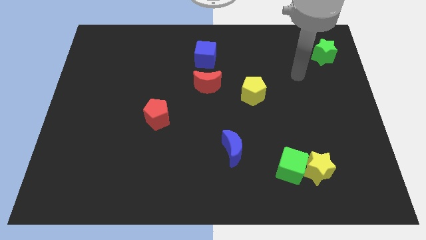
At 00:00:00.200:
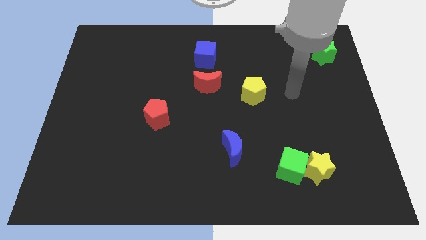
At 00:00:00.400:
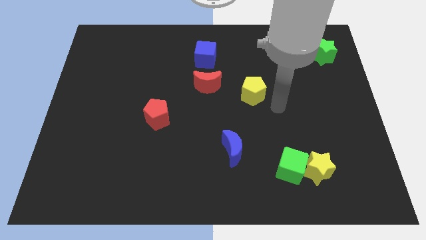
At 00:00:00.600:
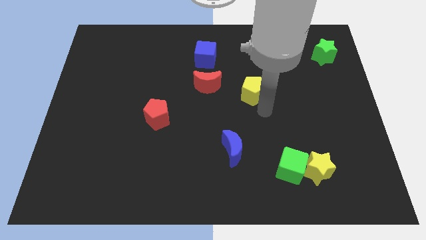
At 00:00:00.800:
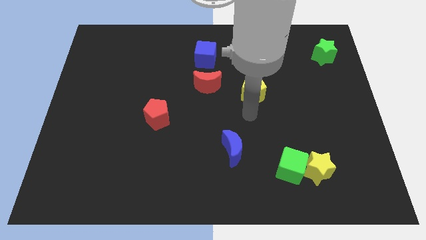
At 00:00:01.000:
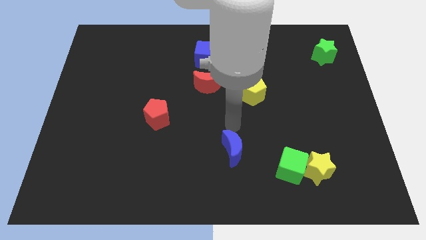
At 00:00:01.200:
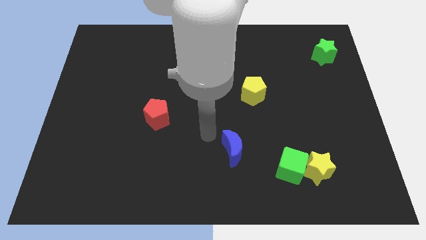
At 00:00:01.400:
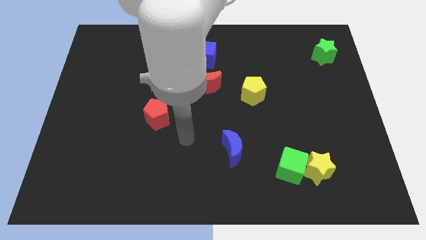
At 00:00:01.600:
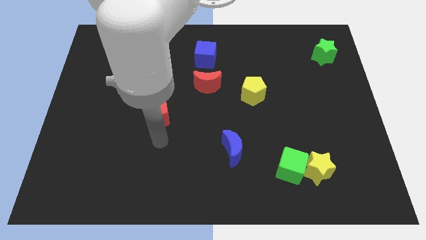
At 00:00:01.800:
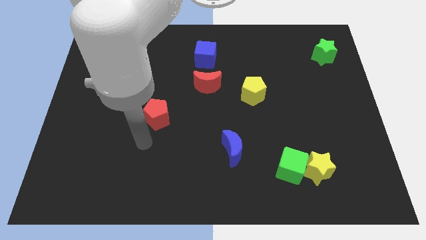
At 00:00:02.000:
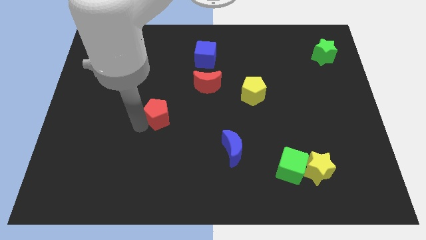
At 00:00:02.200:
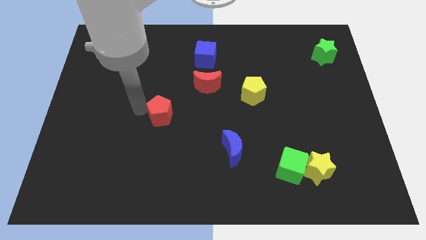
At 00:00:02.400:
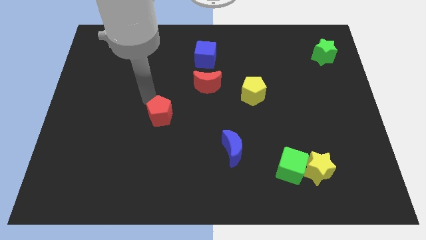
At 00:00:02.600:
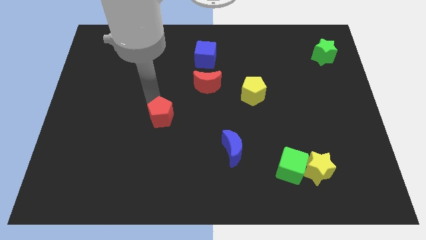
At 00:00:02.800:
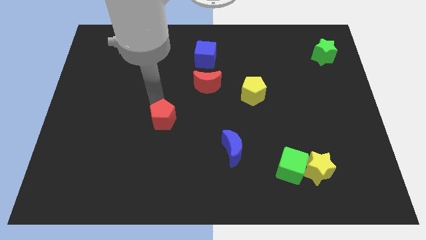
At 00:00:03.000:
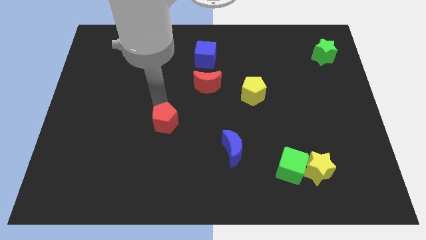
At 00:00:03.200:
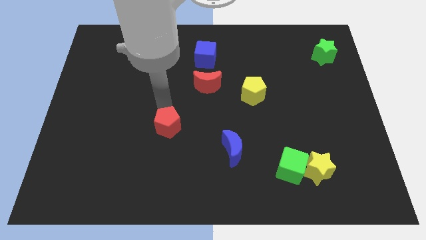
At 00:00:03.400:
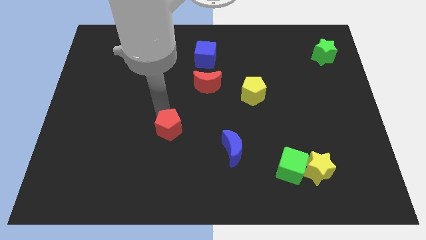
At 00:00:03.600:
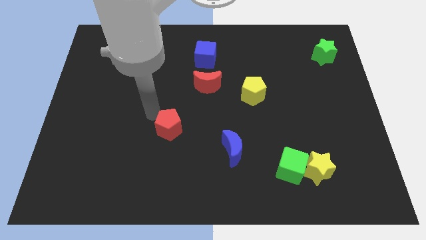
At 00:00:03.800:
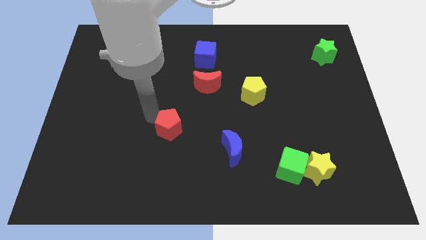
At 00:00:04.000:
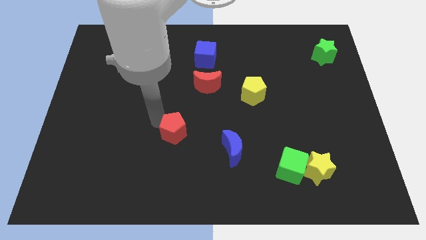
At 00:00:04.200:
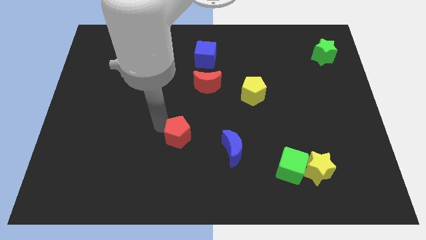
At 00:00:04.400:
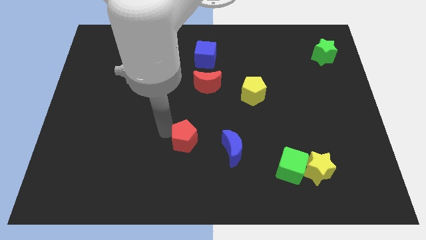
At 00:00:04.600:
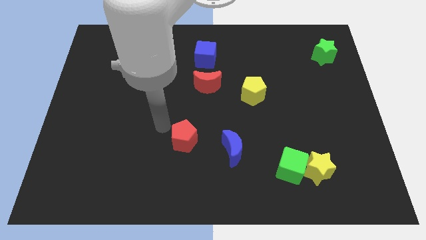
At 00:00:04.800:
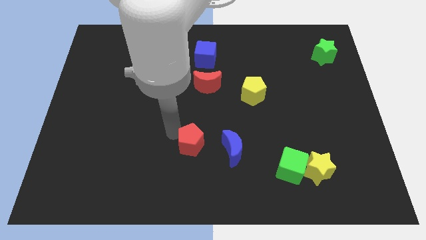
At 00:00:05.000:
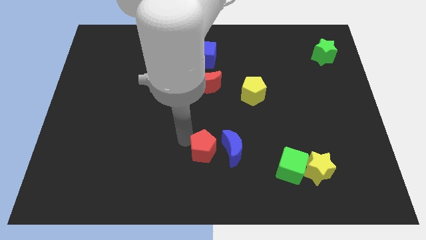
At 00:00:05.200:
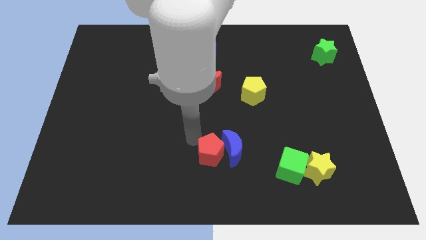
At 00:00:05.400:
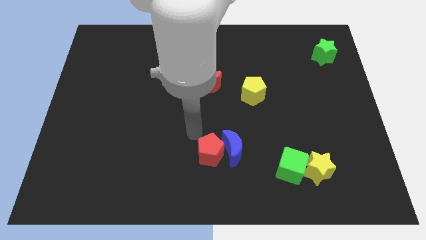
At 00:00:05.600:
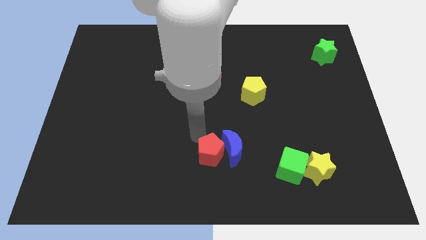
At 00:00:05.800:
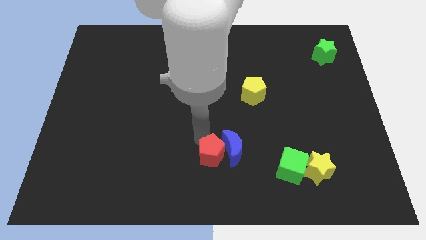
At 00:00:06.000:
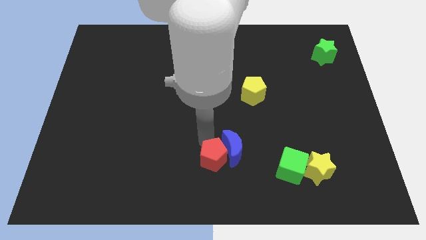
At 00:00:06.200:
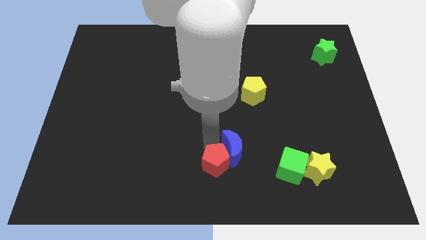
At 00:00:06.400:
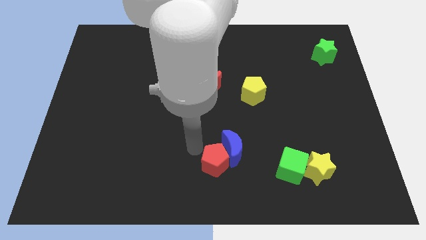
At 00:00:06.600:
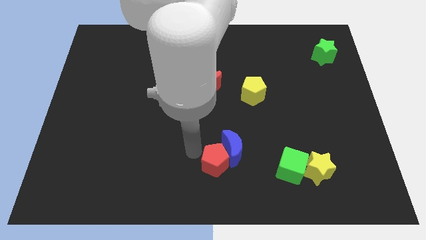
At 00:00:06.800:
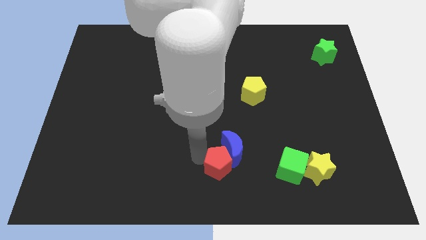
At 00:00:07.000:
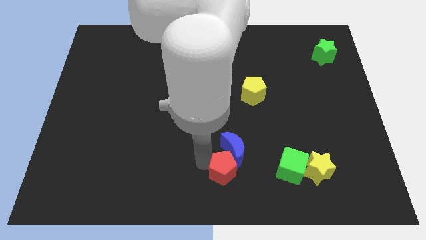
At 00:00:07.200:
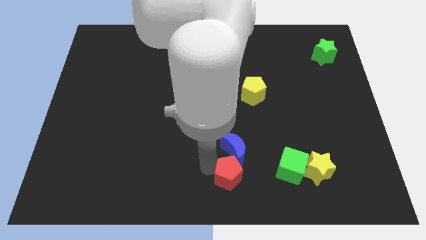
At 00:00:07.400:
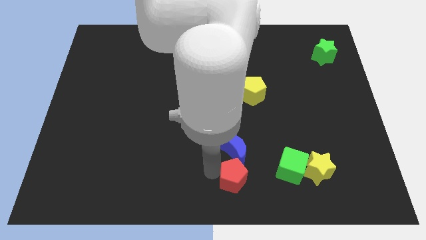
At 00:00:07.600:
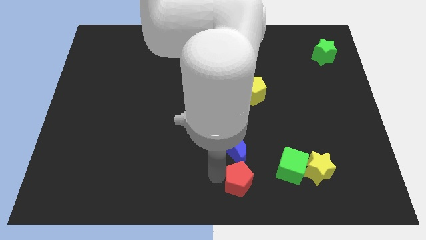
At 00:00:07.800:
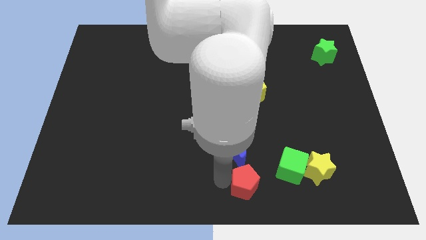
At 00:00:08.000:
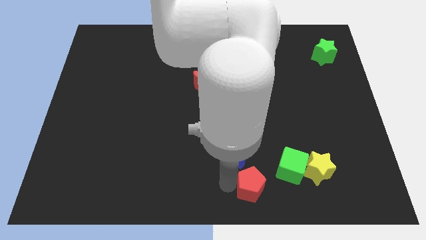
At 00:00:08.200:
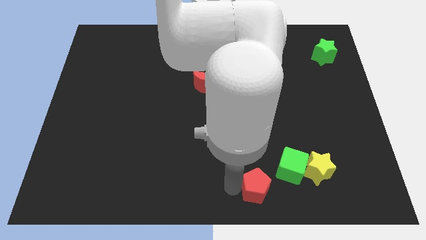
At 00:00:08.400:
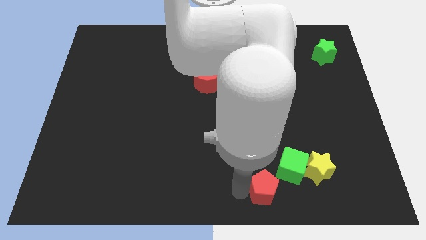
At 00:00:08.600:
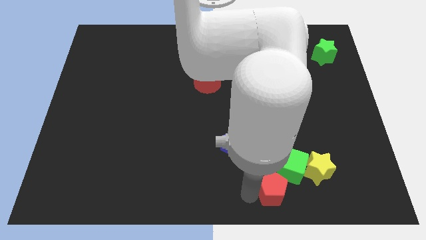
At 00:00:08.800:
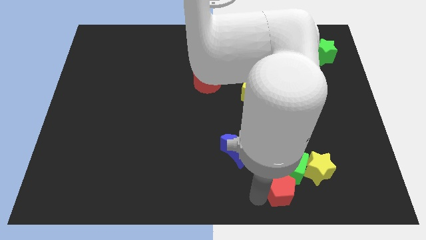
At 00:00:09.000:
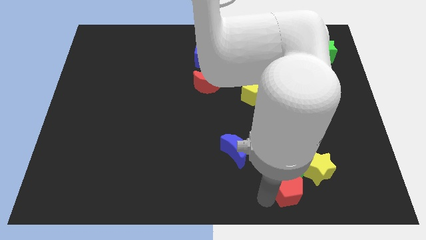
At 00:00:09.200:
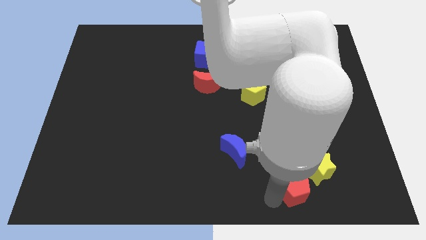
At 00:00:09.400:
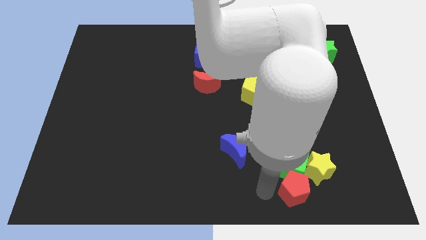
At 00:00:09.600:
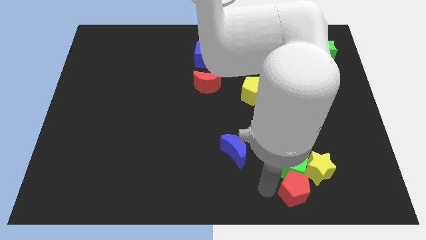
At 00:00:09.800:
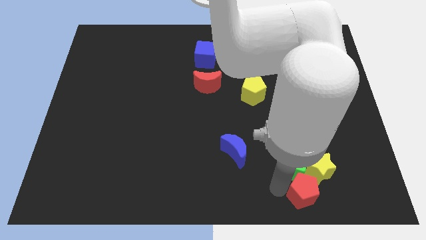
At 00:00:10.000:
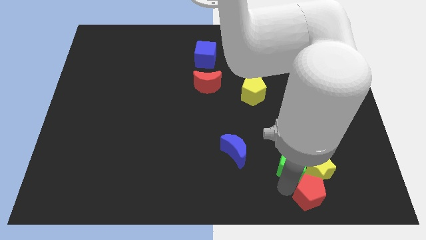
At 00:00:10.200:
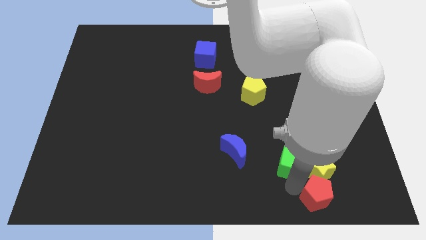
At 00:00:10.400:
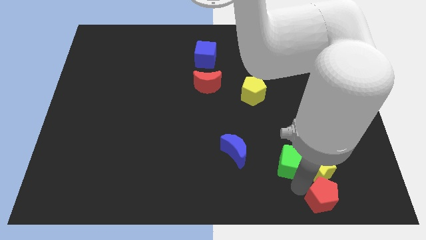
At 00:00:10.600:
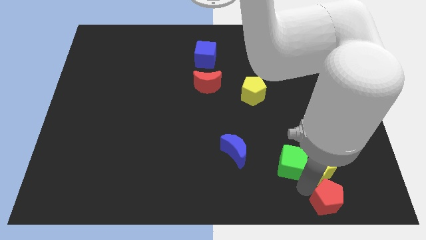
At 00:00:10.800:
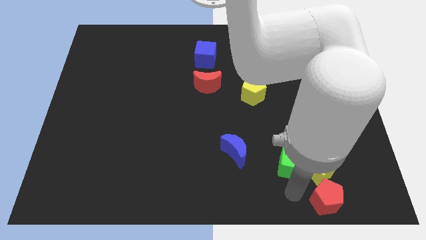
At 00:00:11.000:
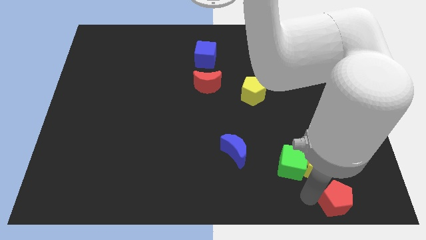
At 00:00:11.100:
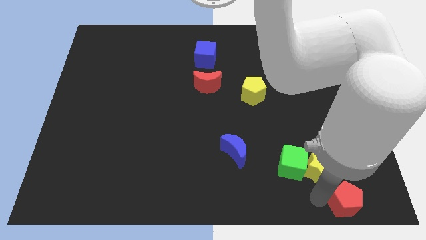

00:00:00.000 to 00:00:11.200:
slide the red pentagon to the bottom right
